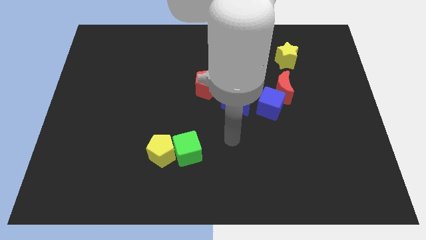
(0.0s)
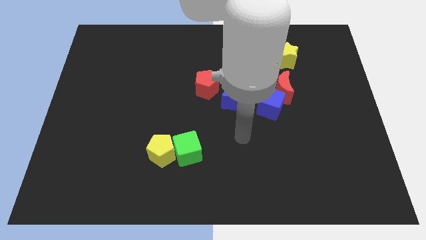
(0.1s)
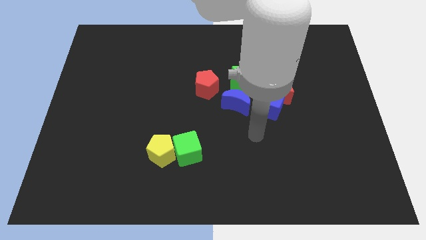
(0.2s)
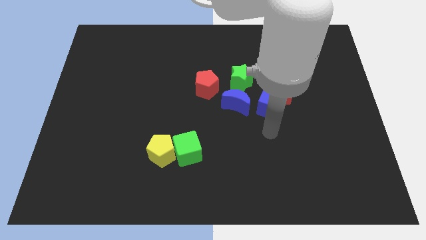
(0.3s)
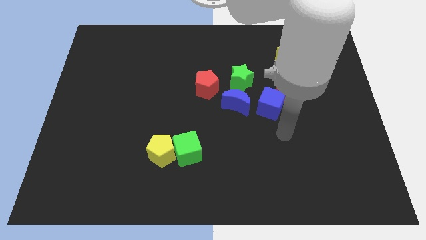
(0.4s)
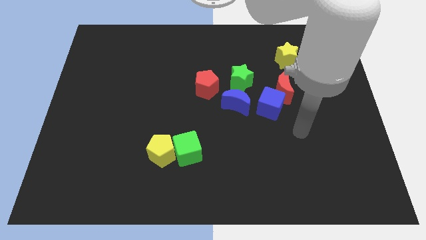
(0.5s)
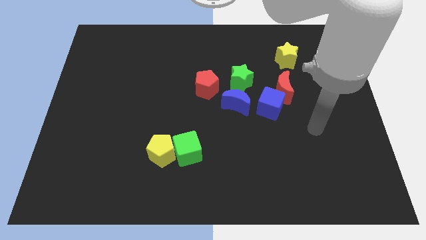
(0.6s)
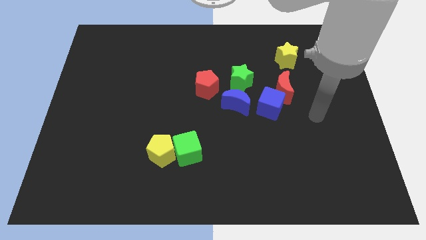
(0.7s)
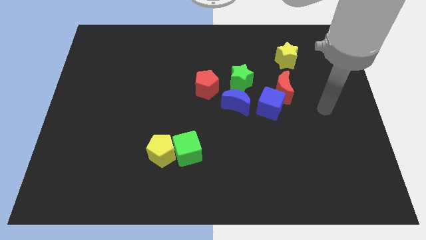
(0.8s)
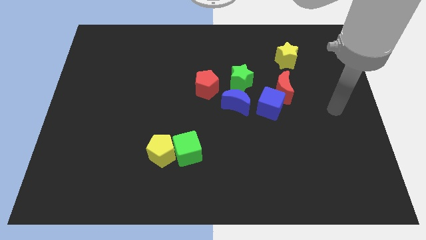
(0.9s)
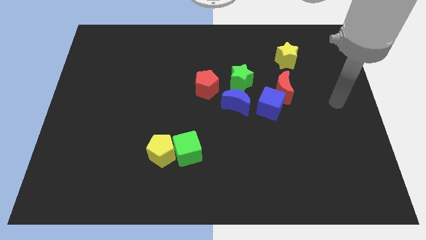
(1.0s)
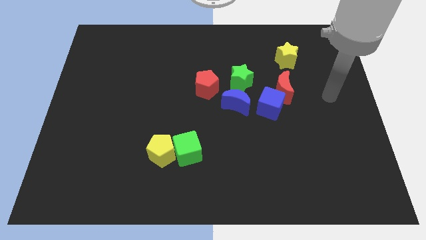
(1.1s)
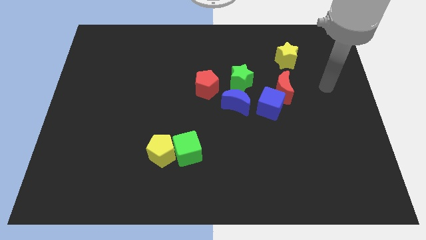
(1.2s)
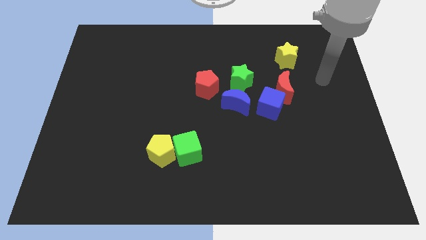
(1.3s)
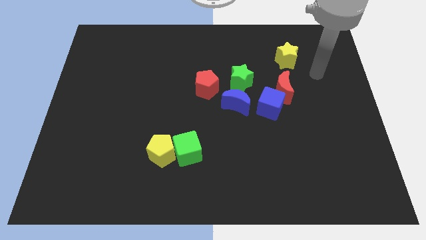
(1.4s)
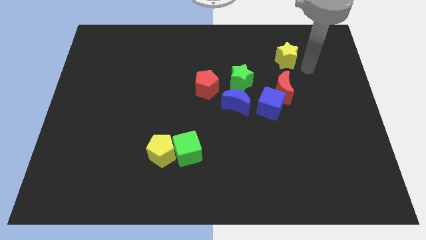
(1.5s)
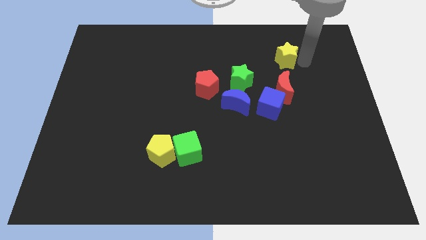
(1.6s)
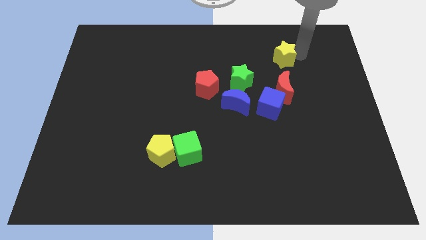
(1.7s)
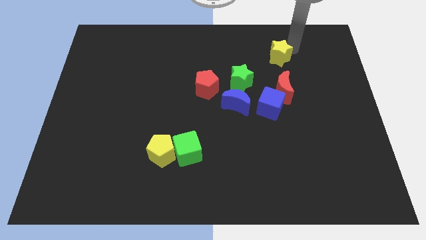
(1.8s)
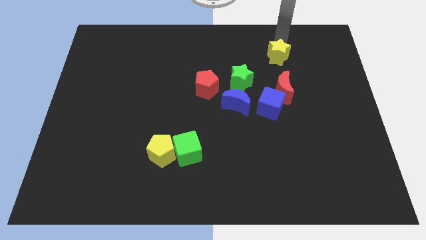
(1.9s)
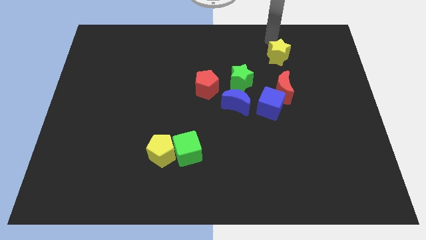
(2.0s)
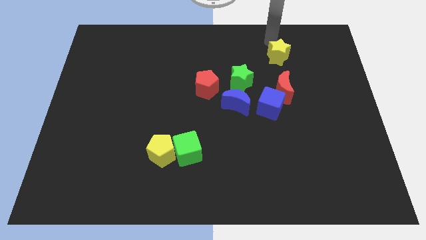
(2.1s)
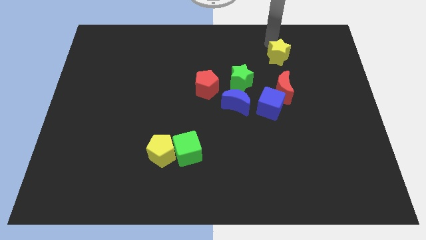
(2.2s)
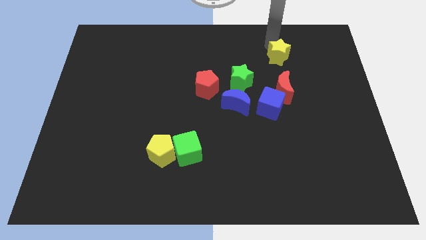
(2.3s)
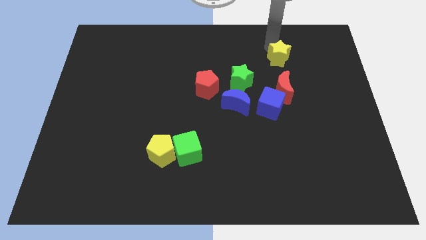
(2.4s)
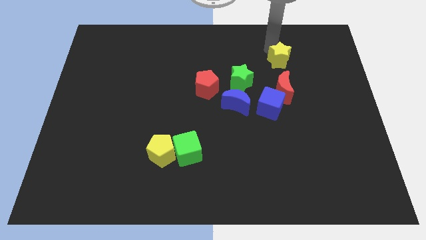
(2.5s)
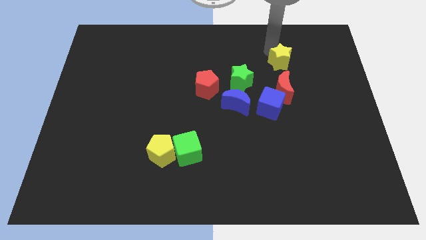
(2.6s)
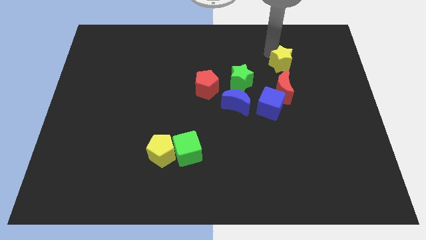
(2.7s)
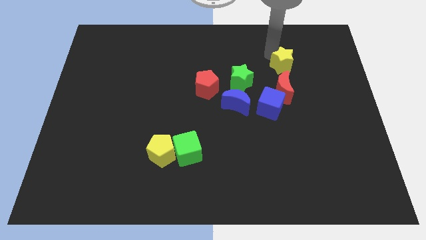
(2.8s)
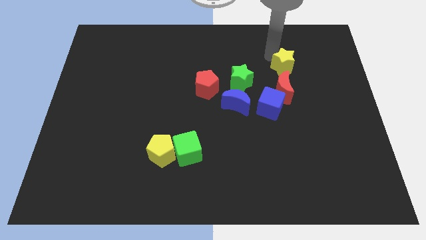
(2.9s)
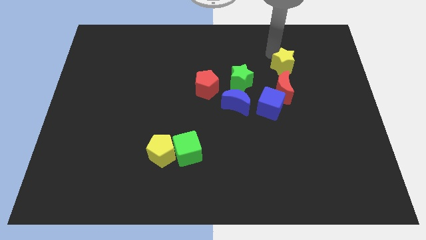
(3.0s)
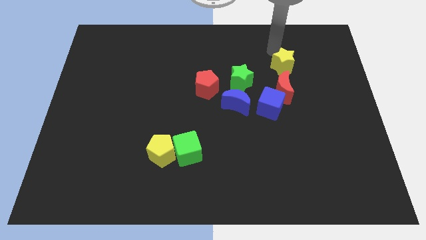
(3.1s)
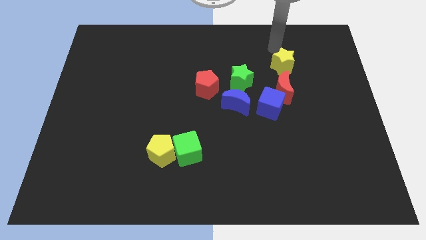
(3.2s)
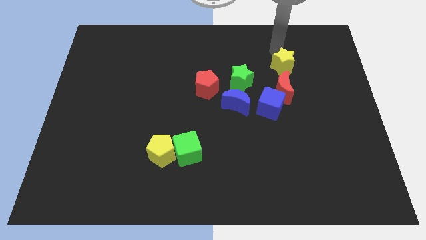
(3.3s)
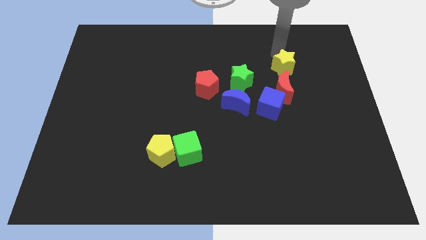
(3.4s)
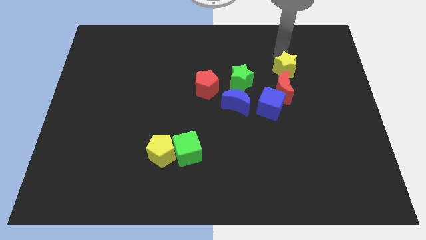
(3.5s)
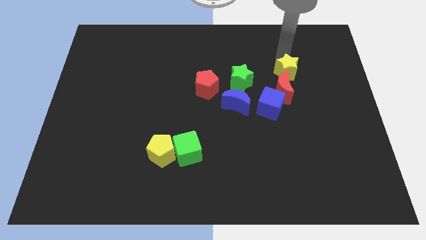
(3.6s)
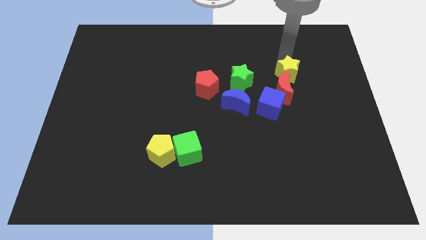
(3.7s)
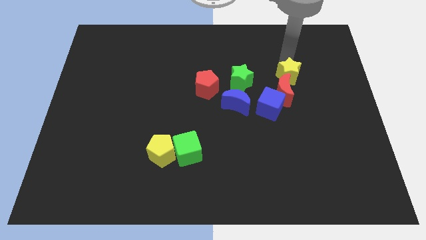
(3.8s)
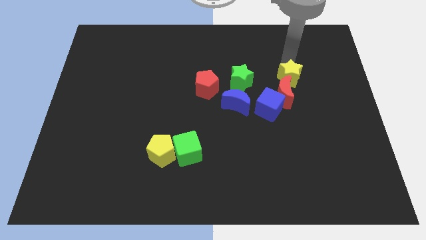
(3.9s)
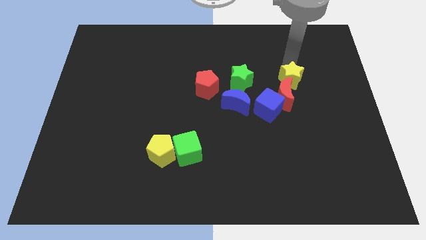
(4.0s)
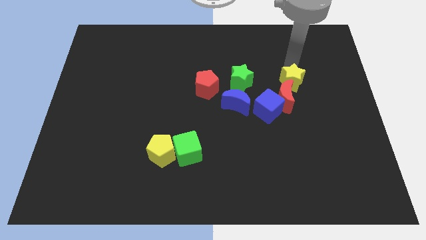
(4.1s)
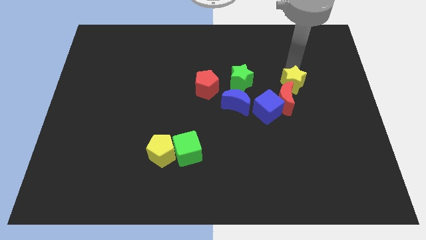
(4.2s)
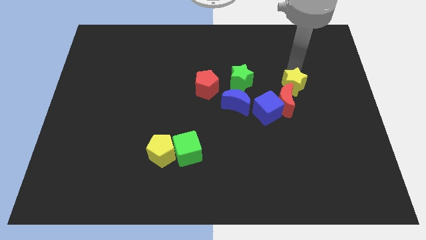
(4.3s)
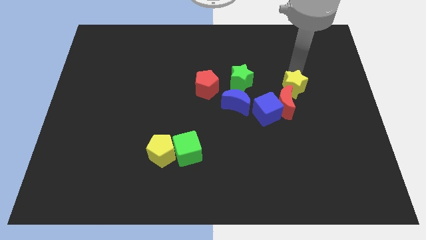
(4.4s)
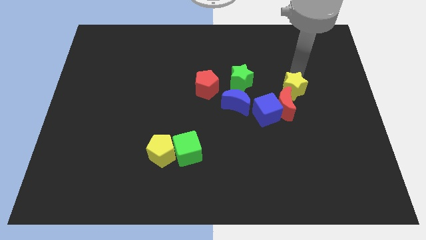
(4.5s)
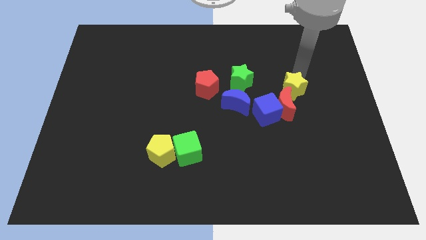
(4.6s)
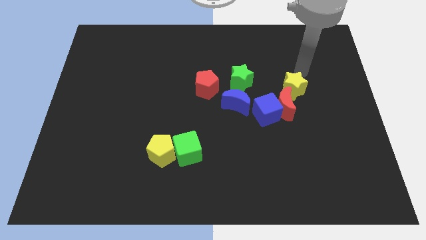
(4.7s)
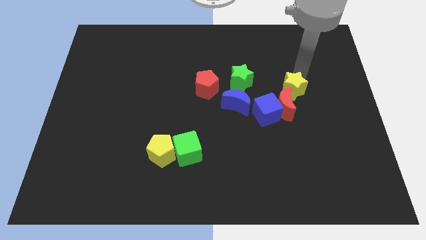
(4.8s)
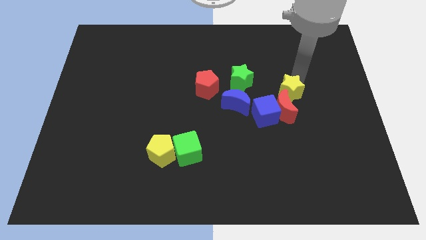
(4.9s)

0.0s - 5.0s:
put the yellow star close to the red moon

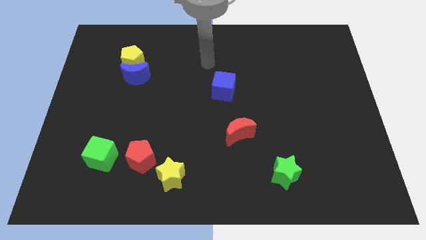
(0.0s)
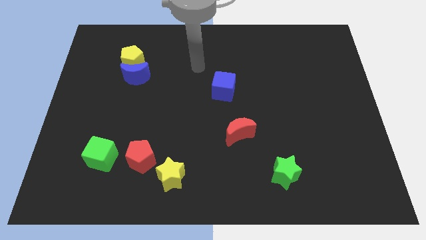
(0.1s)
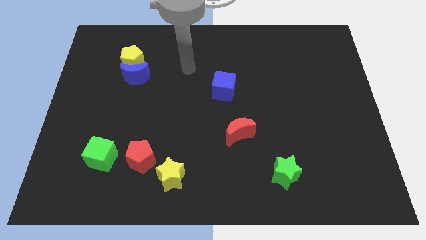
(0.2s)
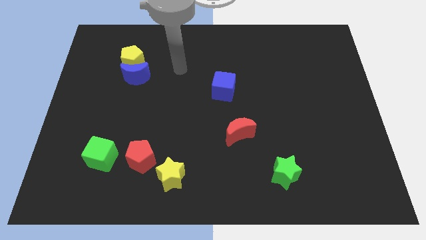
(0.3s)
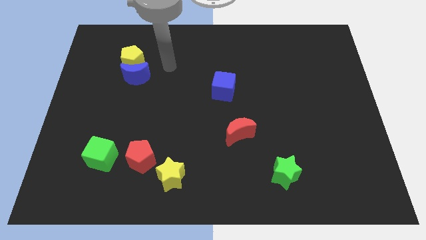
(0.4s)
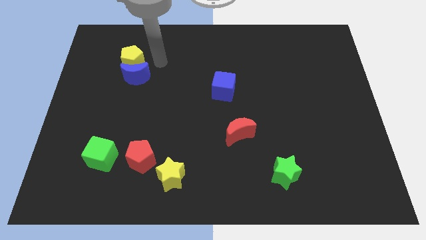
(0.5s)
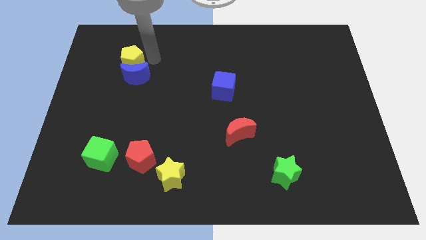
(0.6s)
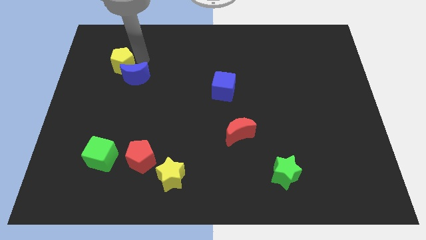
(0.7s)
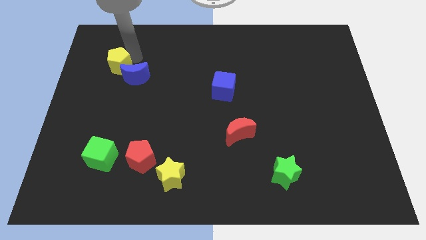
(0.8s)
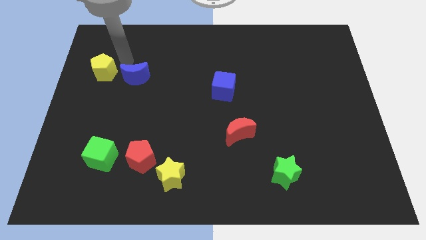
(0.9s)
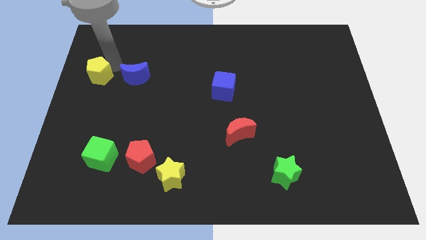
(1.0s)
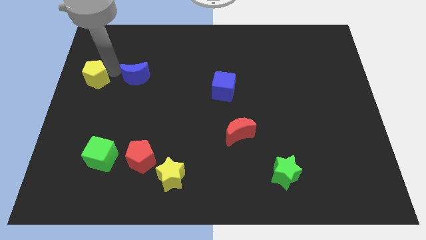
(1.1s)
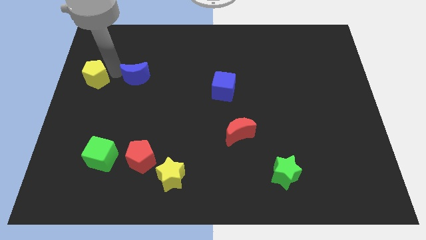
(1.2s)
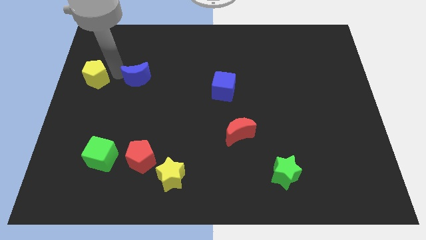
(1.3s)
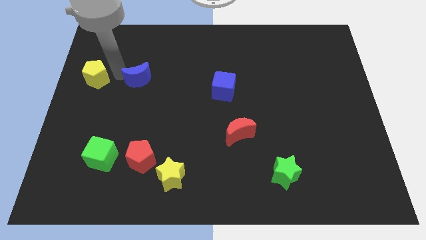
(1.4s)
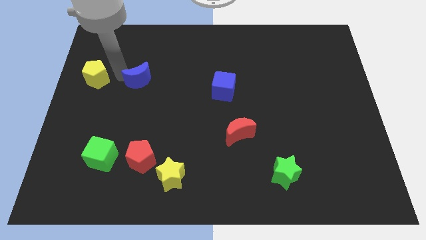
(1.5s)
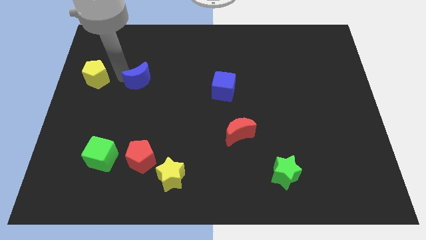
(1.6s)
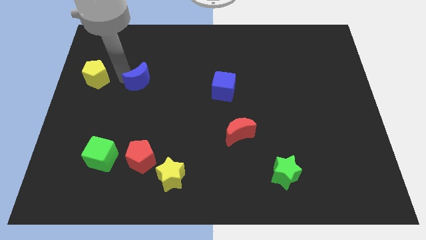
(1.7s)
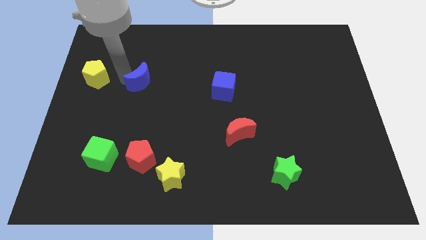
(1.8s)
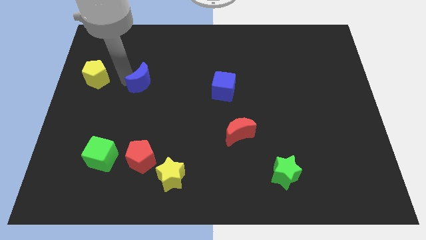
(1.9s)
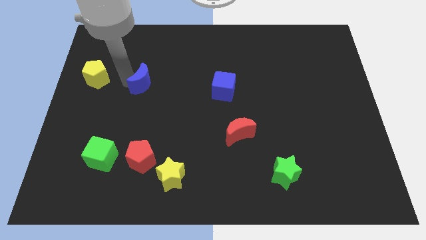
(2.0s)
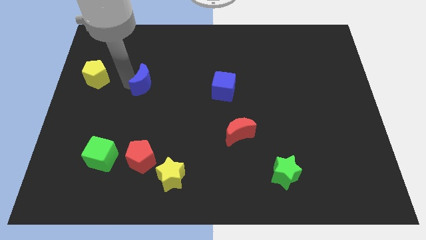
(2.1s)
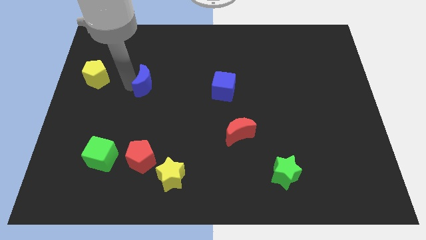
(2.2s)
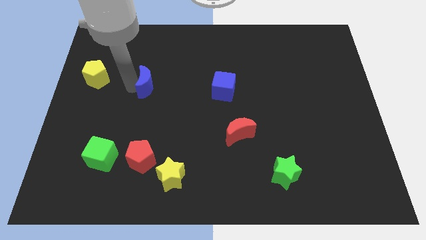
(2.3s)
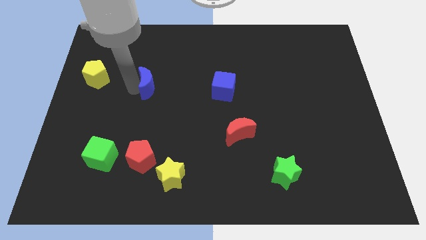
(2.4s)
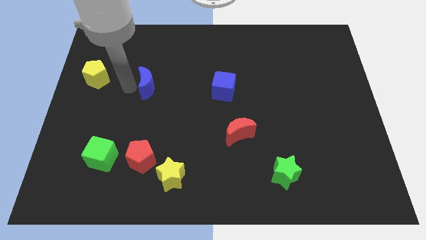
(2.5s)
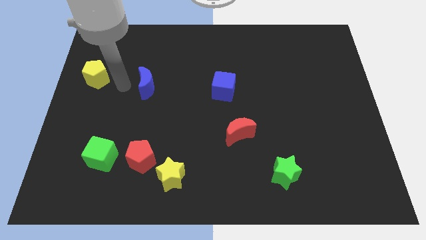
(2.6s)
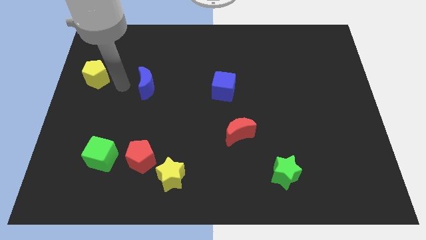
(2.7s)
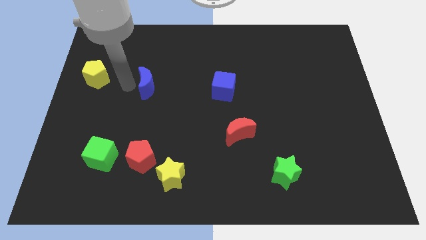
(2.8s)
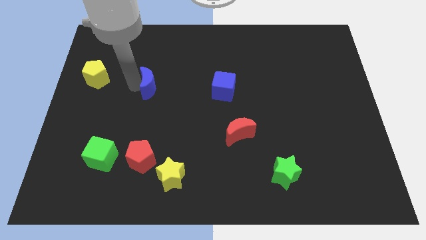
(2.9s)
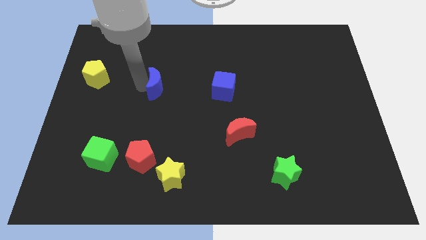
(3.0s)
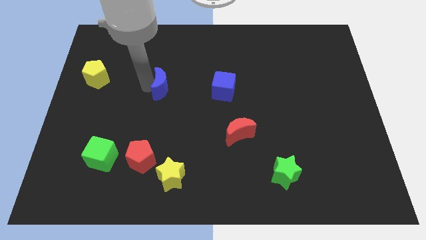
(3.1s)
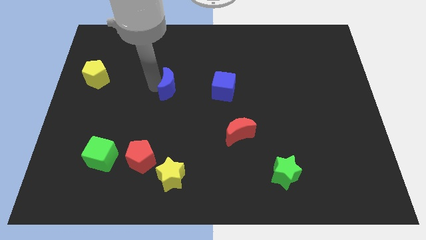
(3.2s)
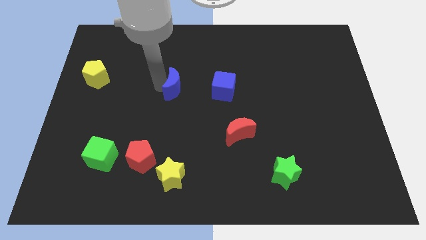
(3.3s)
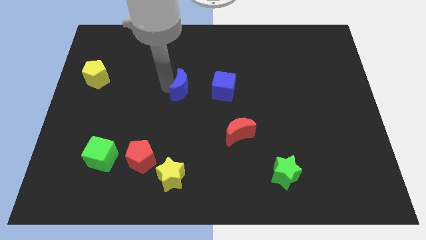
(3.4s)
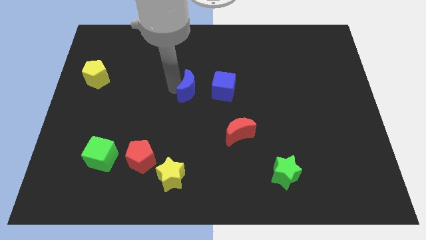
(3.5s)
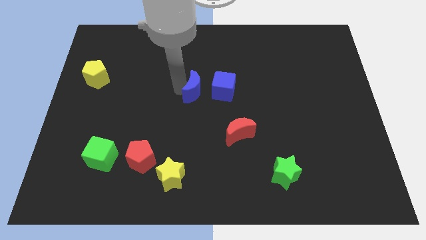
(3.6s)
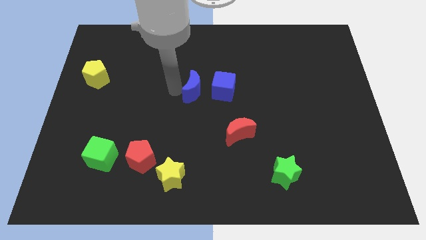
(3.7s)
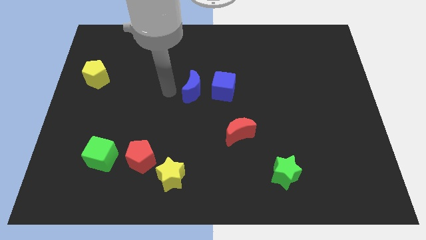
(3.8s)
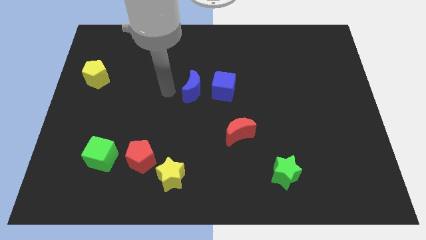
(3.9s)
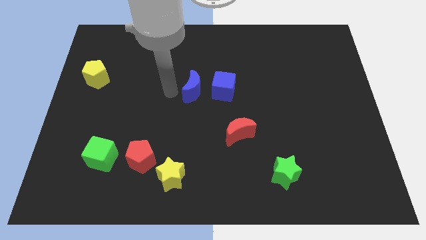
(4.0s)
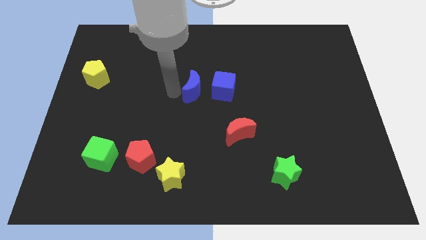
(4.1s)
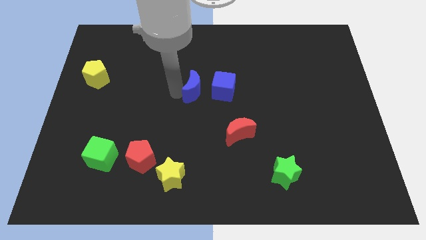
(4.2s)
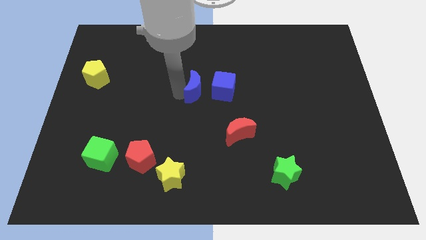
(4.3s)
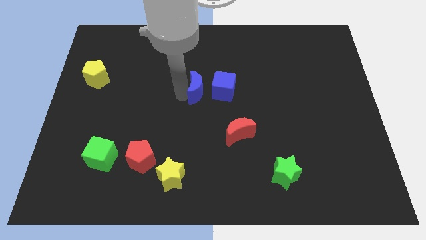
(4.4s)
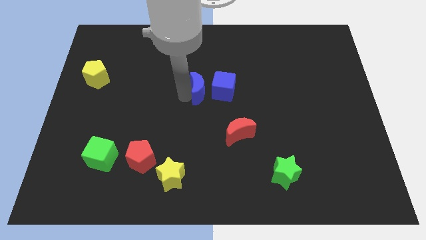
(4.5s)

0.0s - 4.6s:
put the blue moon close to the blue cube
